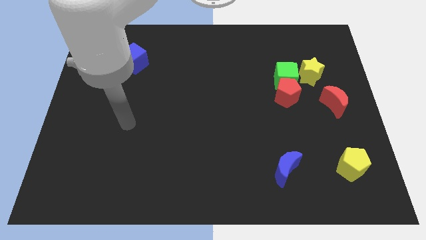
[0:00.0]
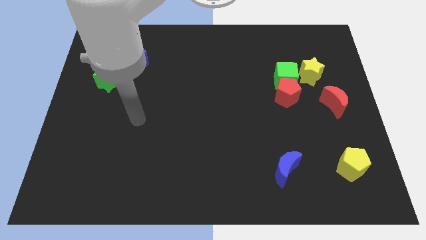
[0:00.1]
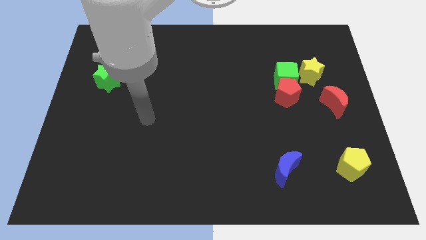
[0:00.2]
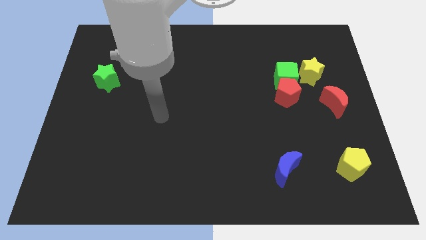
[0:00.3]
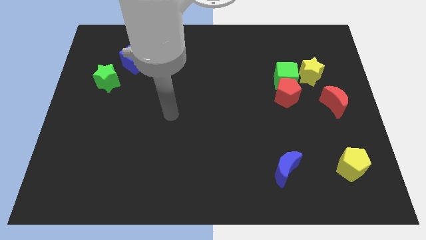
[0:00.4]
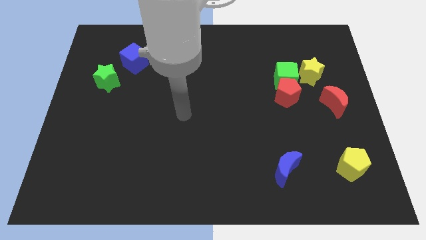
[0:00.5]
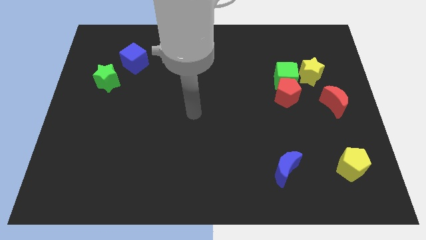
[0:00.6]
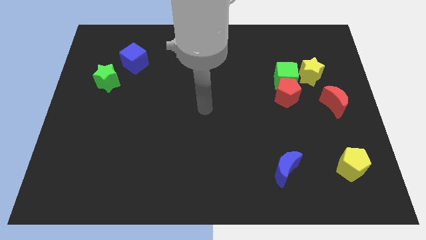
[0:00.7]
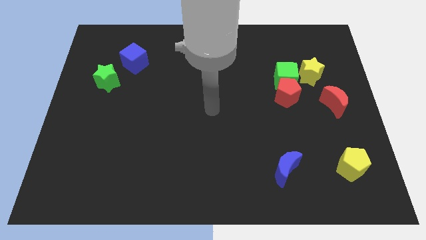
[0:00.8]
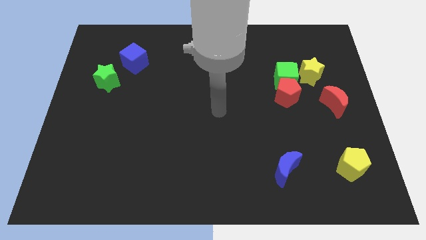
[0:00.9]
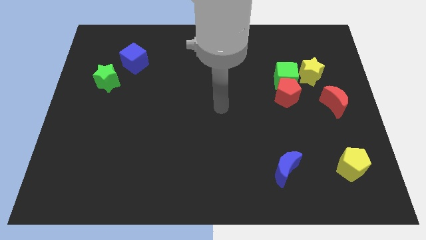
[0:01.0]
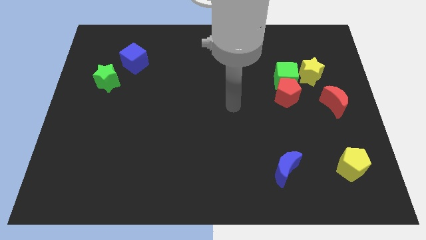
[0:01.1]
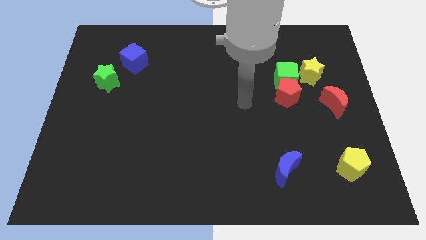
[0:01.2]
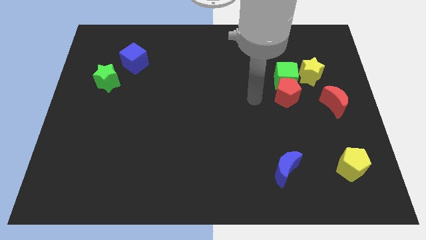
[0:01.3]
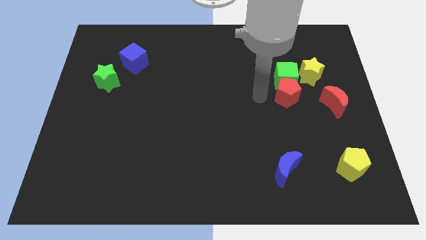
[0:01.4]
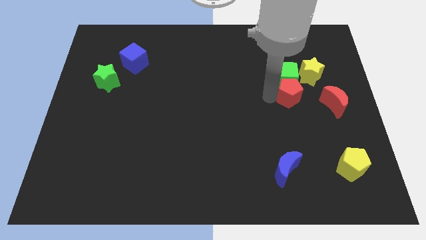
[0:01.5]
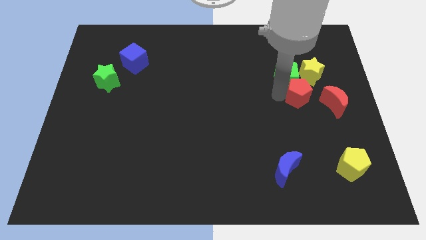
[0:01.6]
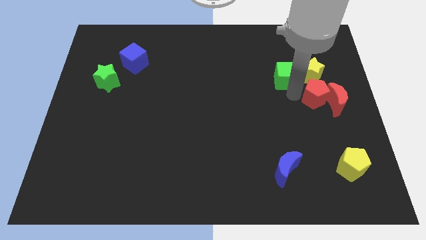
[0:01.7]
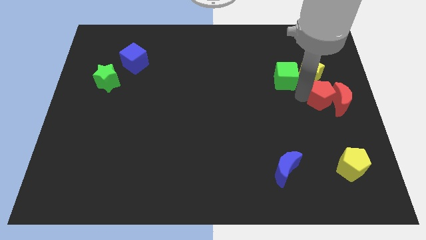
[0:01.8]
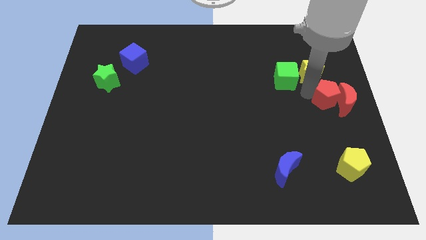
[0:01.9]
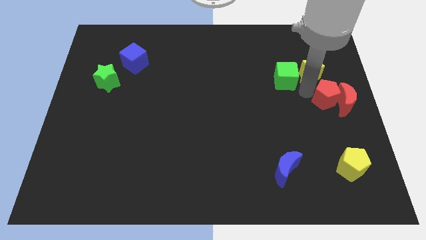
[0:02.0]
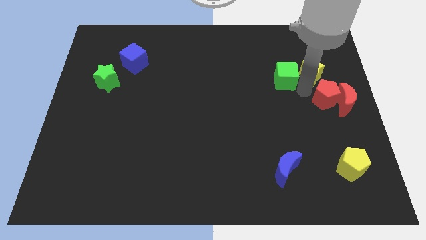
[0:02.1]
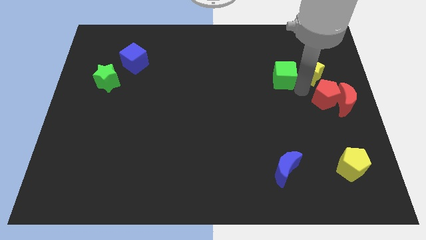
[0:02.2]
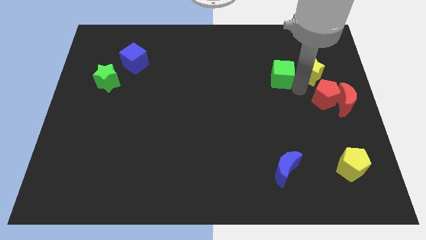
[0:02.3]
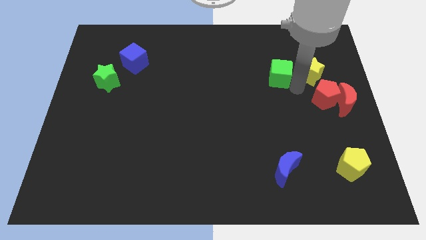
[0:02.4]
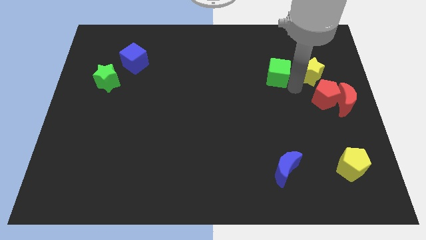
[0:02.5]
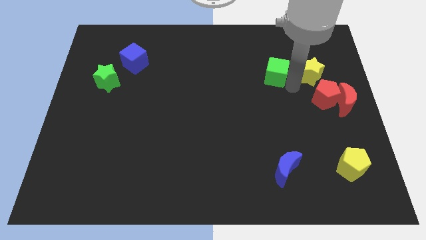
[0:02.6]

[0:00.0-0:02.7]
pull the green cube apart from the red pentagon and yellow star

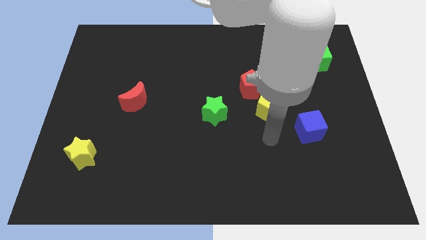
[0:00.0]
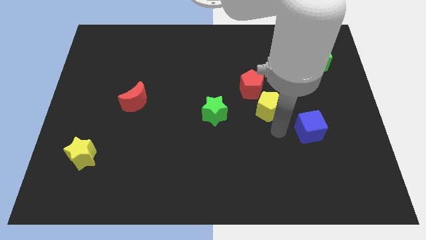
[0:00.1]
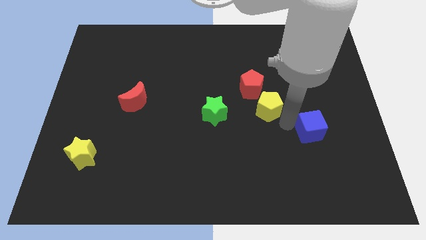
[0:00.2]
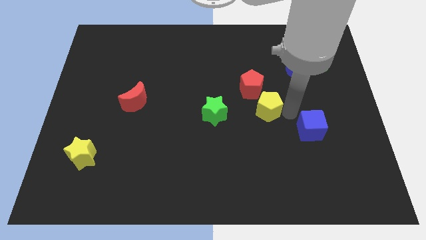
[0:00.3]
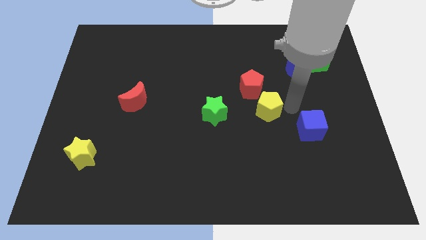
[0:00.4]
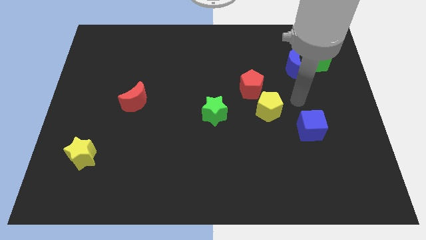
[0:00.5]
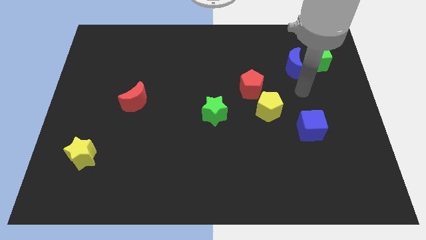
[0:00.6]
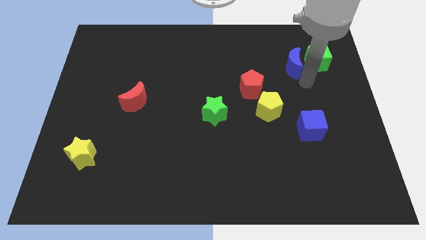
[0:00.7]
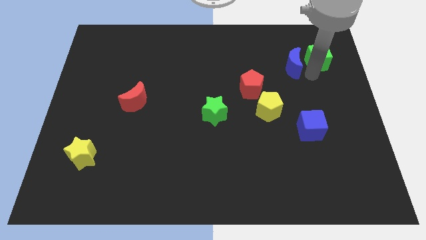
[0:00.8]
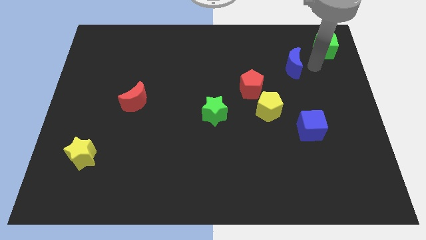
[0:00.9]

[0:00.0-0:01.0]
pull the blue moon apart from the green cube

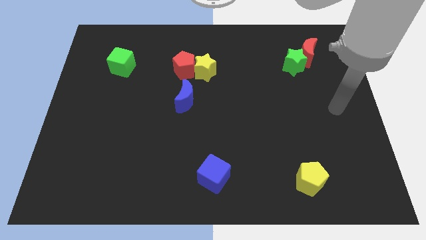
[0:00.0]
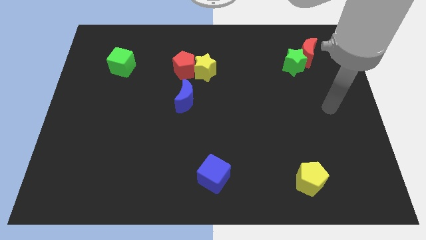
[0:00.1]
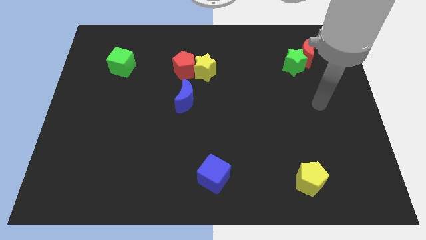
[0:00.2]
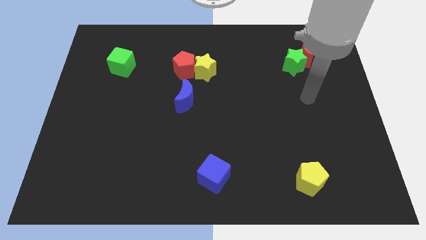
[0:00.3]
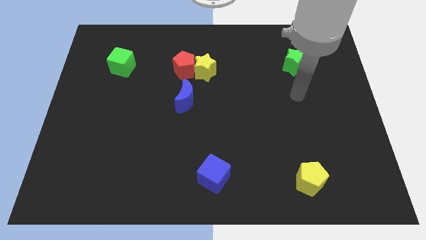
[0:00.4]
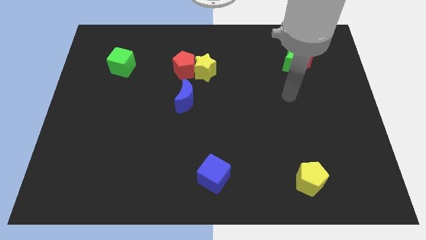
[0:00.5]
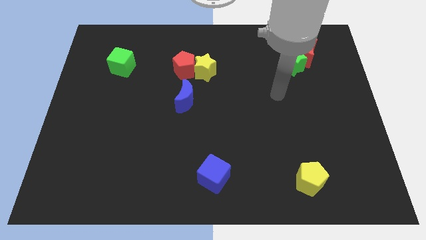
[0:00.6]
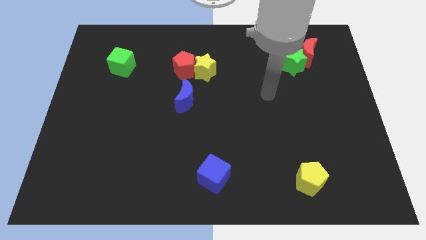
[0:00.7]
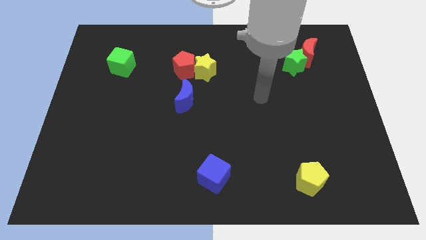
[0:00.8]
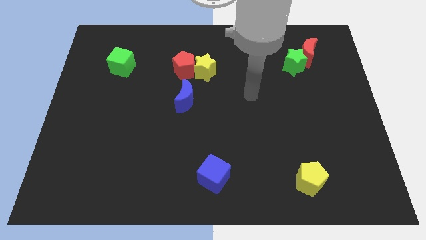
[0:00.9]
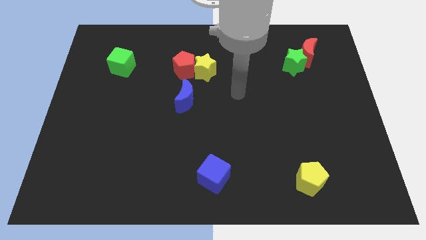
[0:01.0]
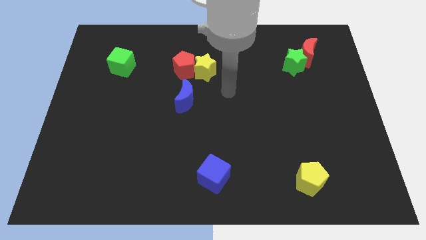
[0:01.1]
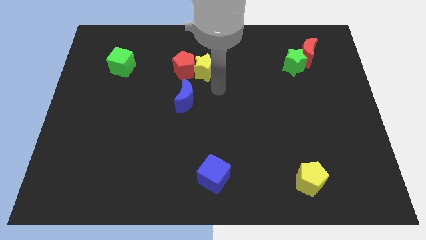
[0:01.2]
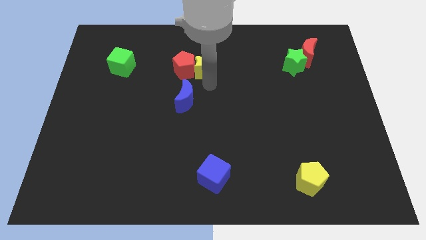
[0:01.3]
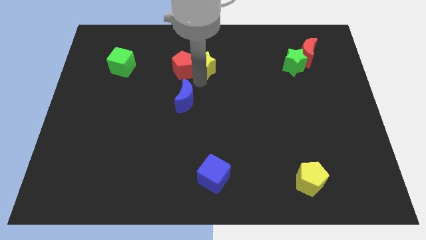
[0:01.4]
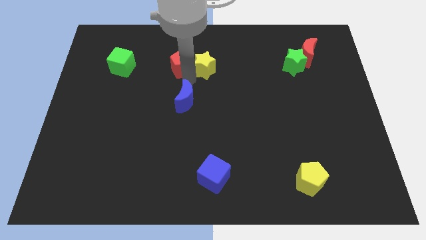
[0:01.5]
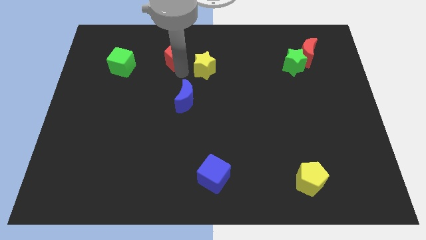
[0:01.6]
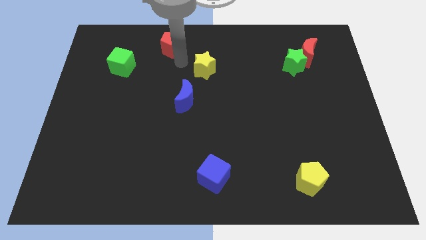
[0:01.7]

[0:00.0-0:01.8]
pull the yellow star apart from the red pentagon

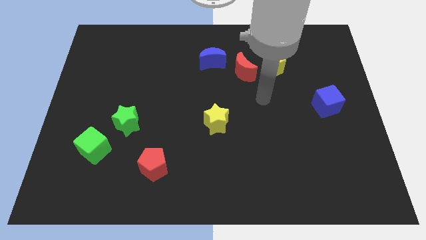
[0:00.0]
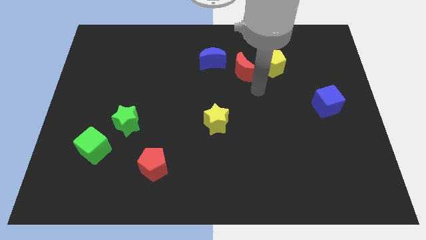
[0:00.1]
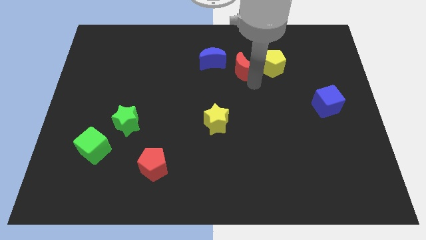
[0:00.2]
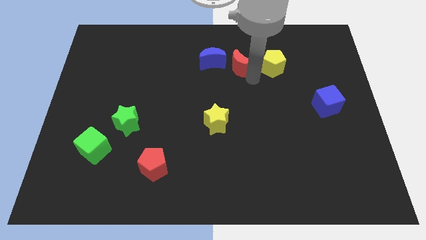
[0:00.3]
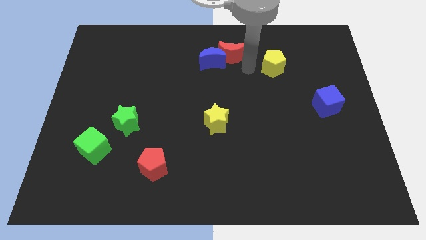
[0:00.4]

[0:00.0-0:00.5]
pull the yellow pentagon apart from the red moon

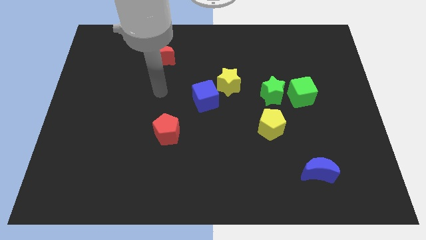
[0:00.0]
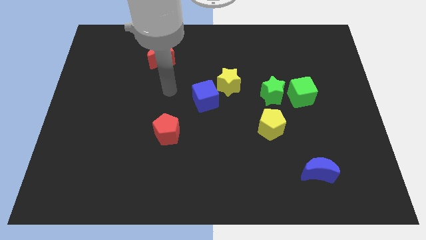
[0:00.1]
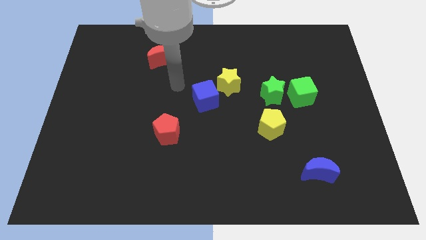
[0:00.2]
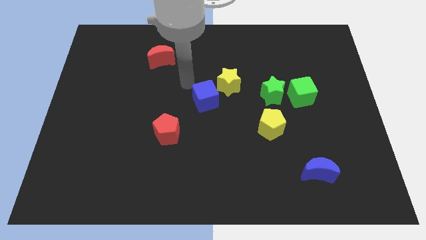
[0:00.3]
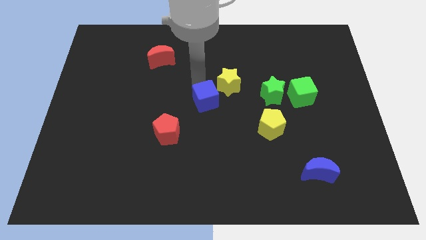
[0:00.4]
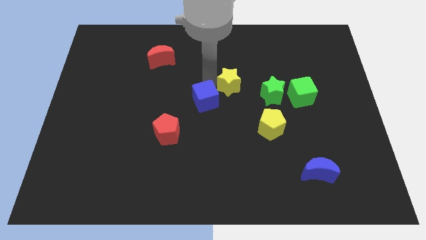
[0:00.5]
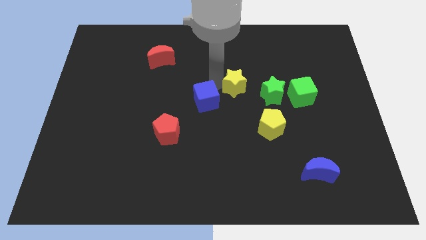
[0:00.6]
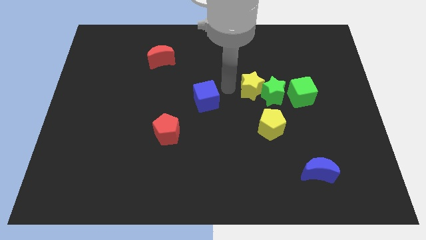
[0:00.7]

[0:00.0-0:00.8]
pull the blue cube apart from the yellow star

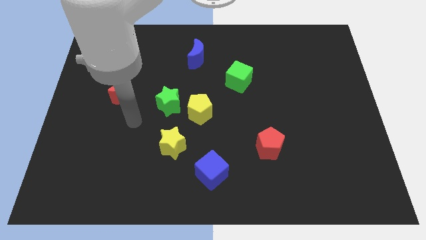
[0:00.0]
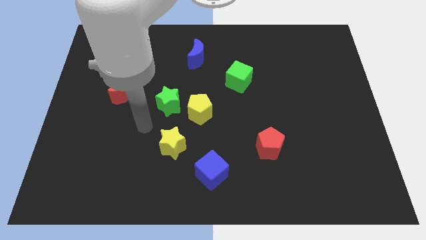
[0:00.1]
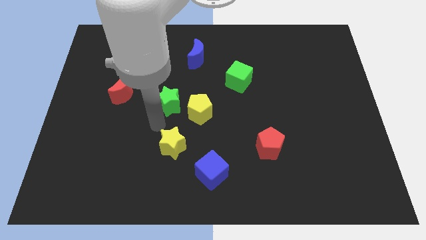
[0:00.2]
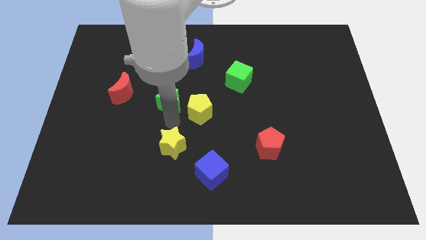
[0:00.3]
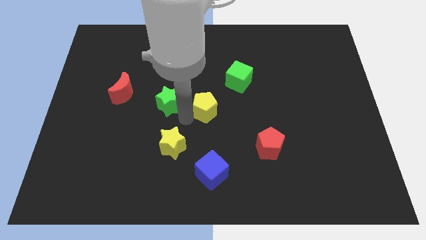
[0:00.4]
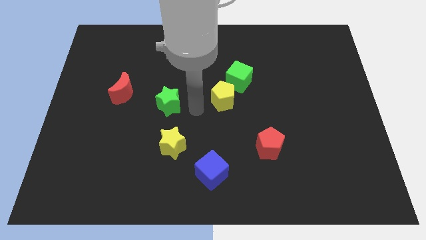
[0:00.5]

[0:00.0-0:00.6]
move the green star away from the yellow pentagon

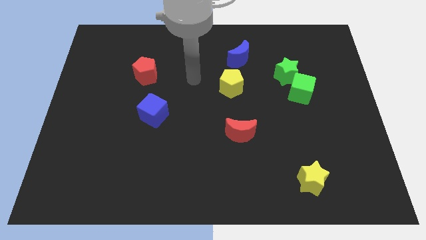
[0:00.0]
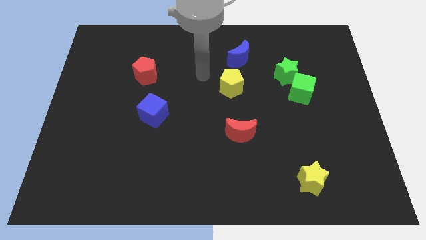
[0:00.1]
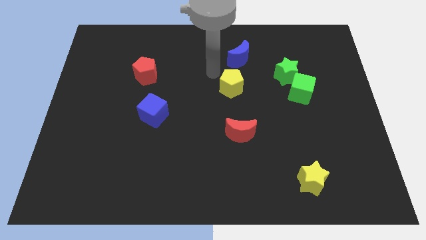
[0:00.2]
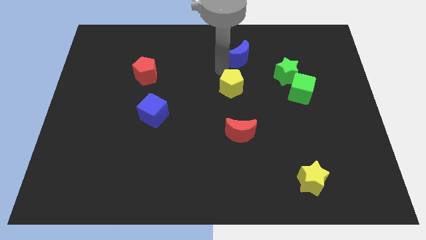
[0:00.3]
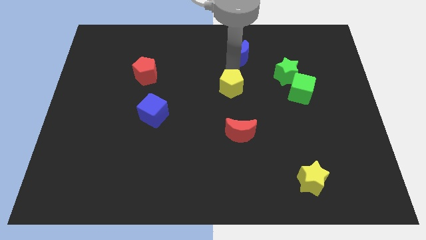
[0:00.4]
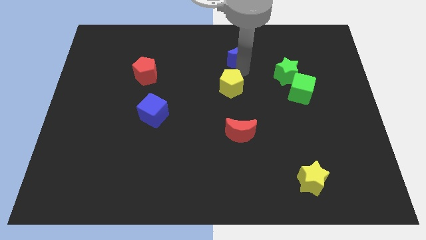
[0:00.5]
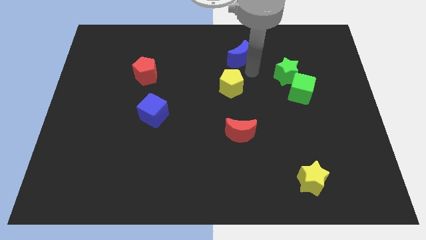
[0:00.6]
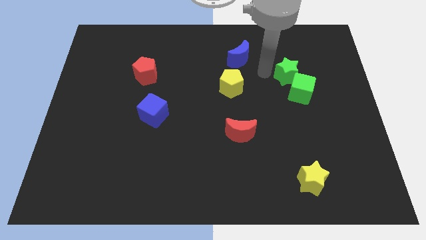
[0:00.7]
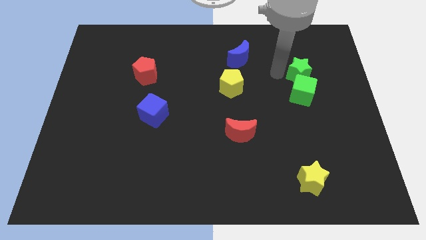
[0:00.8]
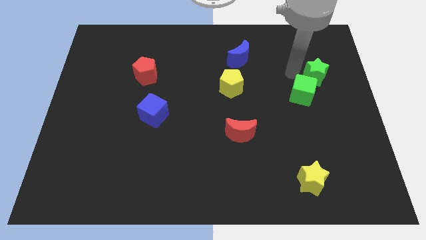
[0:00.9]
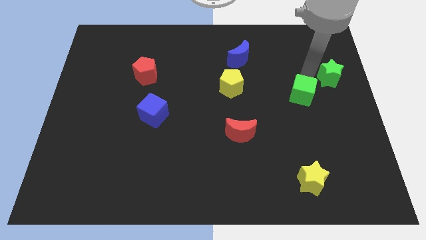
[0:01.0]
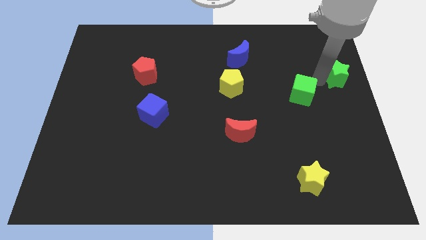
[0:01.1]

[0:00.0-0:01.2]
pull the green cube apart from the green star

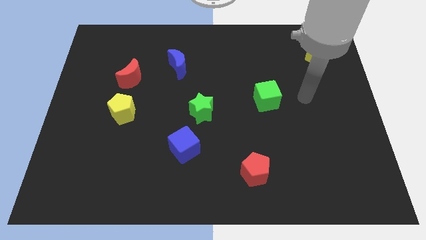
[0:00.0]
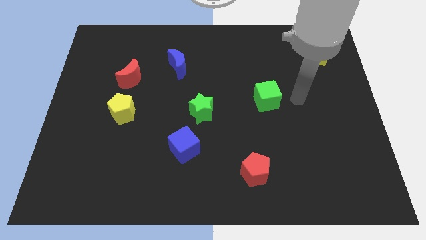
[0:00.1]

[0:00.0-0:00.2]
separate the blue cube from the green star

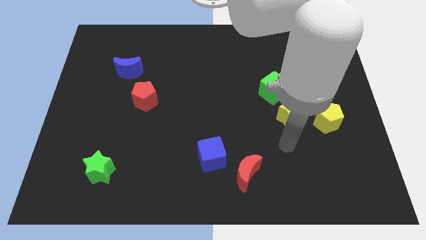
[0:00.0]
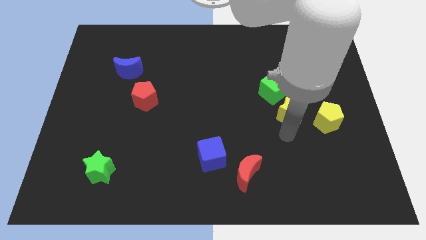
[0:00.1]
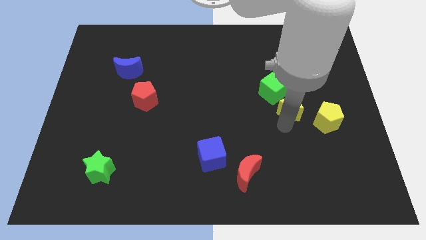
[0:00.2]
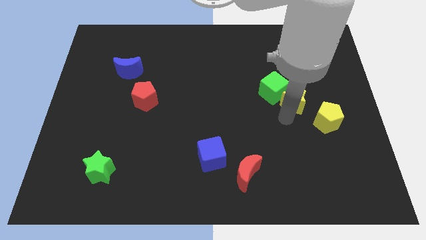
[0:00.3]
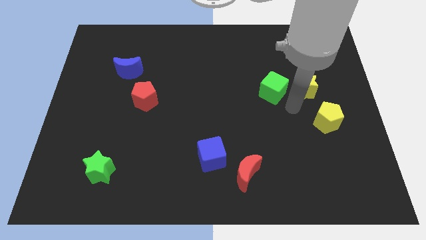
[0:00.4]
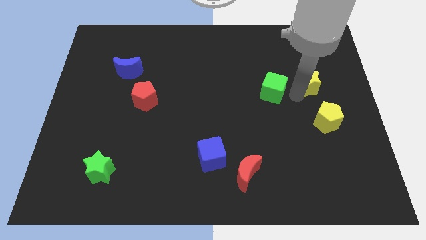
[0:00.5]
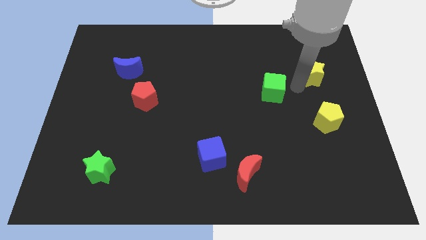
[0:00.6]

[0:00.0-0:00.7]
move the green cube away from the yellow star
